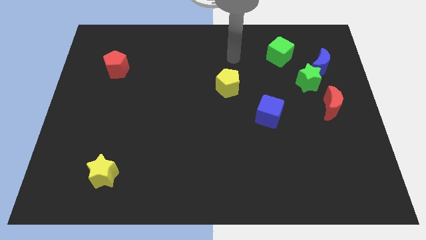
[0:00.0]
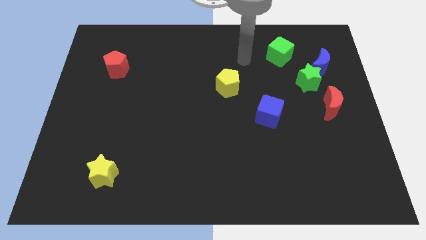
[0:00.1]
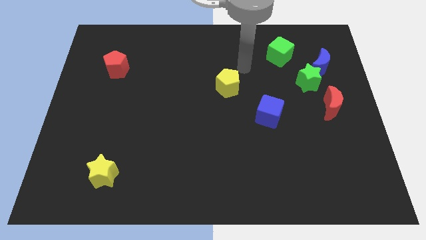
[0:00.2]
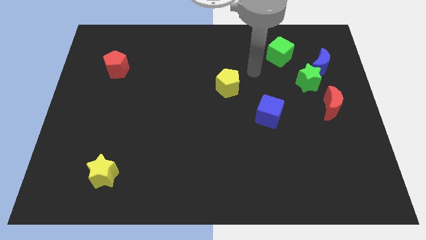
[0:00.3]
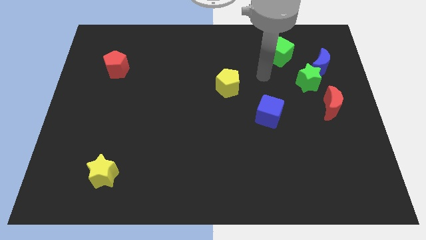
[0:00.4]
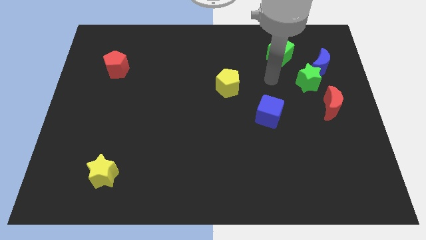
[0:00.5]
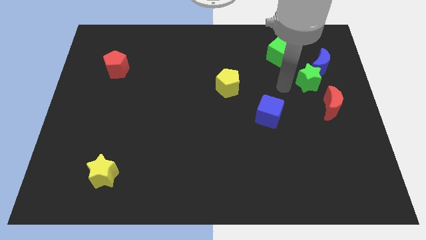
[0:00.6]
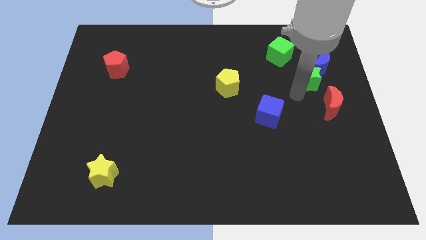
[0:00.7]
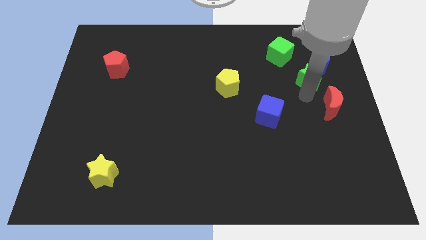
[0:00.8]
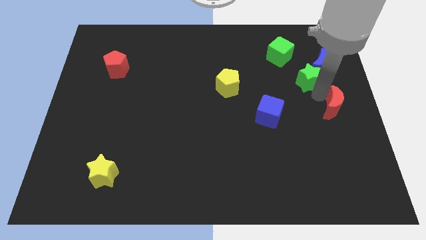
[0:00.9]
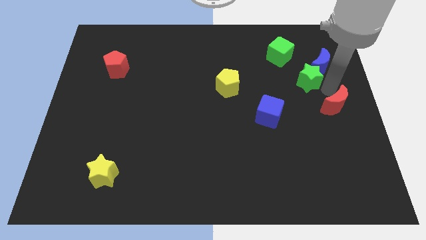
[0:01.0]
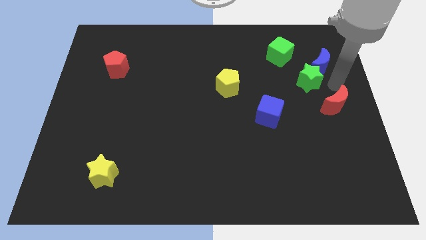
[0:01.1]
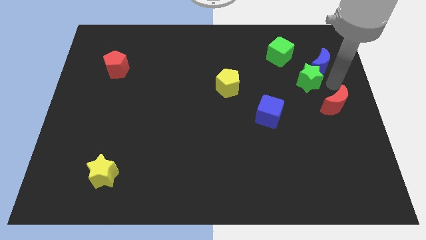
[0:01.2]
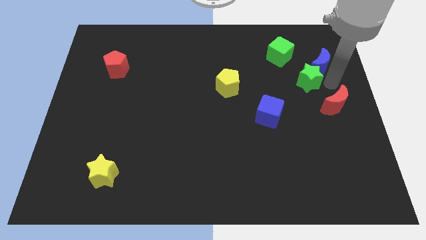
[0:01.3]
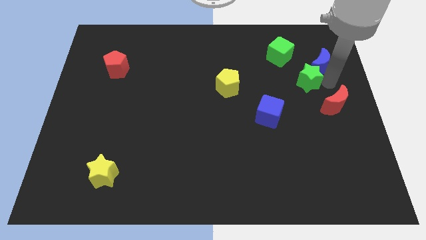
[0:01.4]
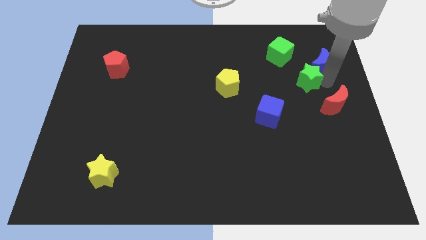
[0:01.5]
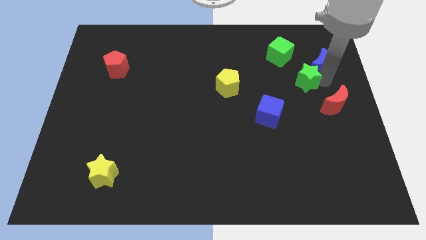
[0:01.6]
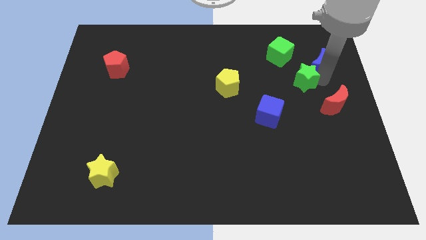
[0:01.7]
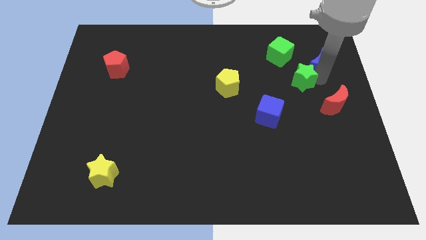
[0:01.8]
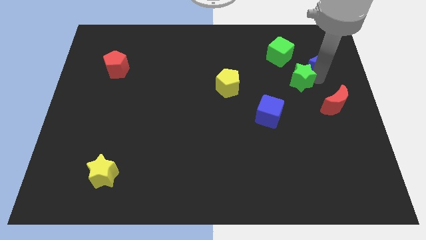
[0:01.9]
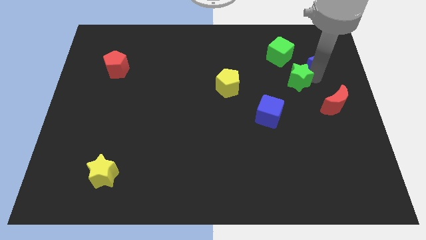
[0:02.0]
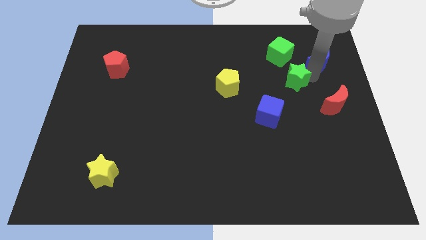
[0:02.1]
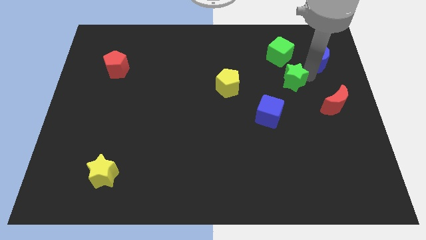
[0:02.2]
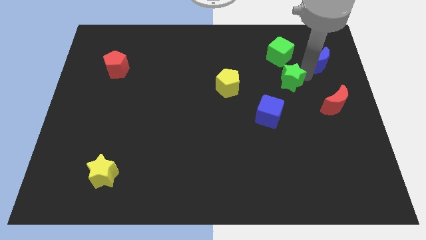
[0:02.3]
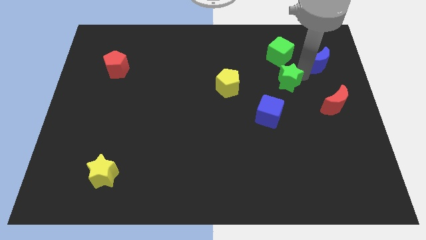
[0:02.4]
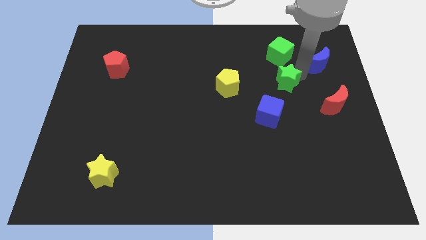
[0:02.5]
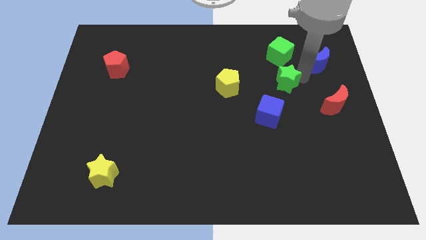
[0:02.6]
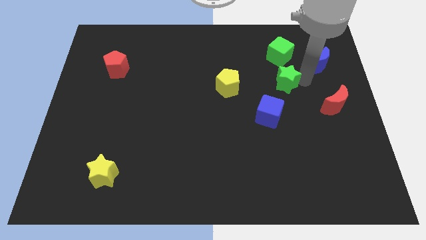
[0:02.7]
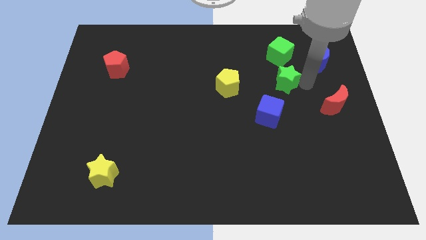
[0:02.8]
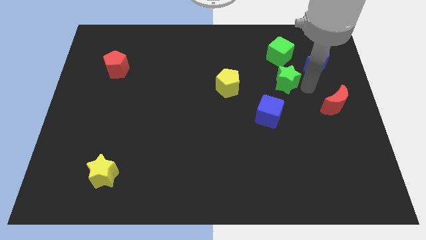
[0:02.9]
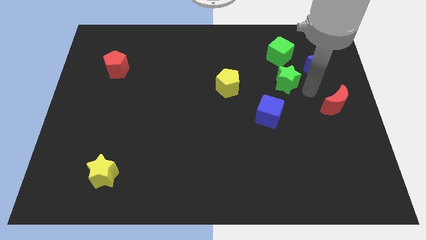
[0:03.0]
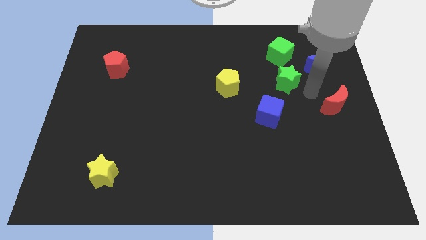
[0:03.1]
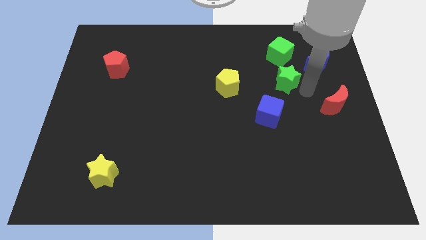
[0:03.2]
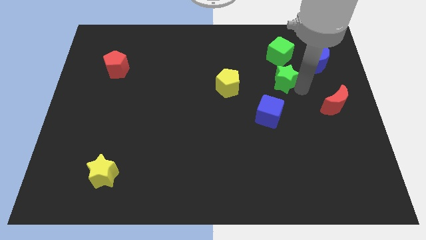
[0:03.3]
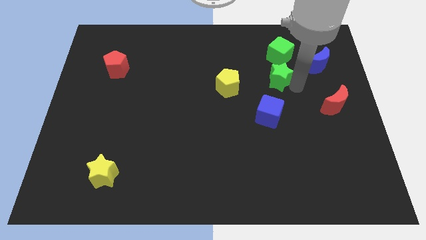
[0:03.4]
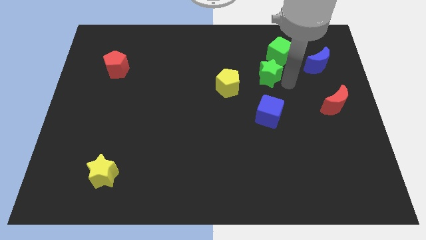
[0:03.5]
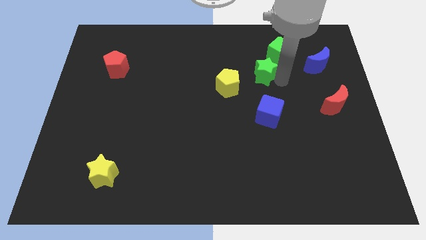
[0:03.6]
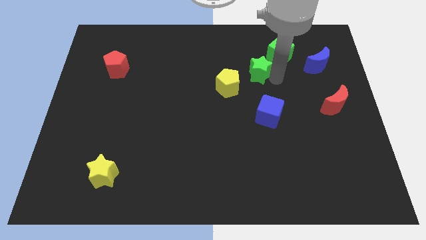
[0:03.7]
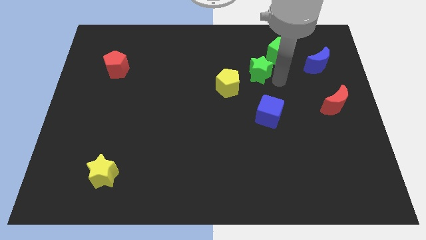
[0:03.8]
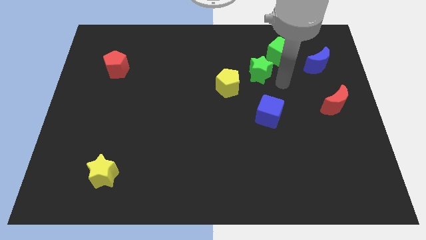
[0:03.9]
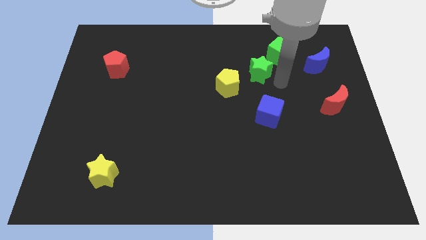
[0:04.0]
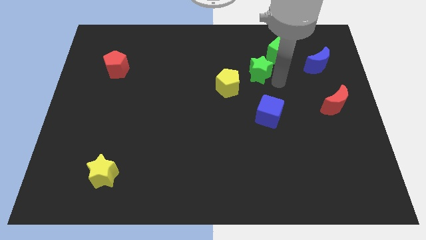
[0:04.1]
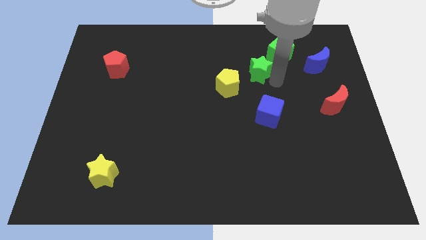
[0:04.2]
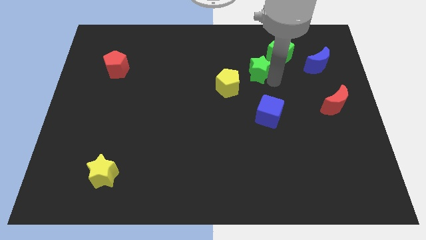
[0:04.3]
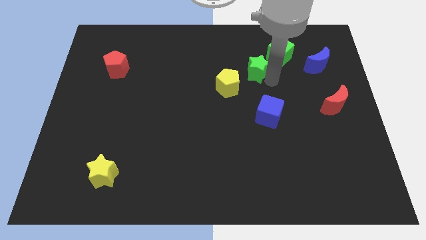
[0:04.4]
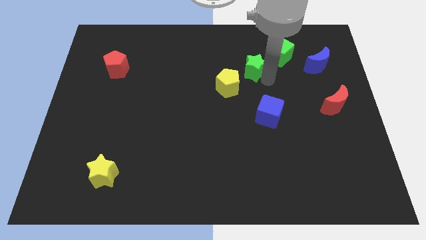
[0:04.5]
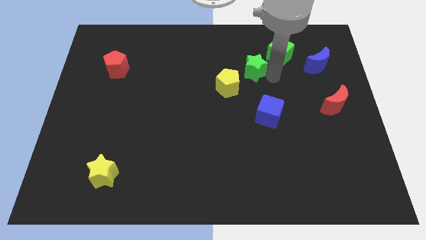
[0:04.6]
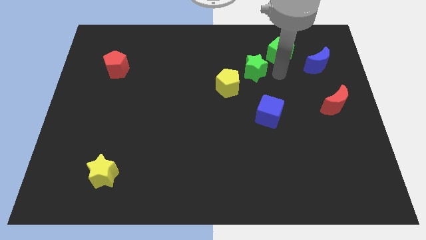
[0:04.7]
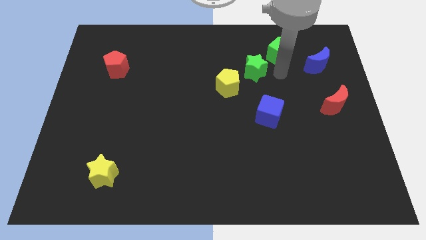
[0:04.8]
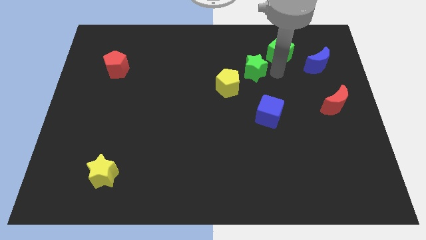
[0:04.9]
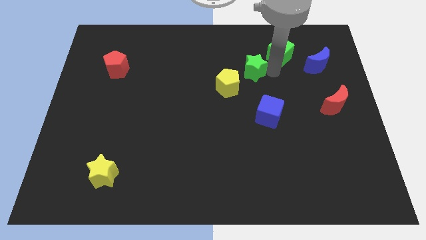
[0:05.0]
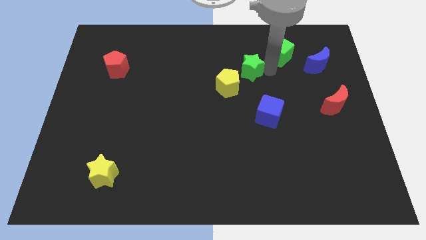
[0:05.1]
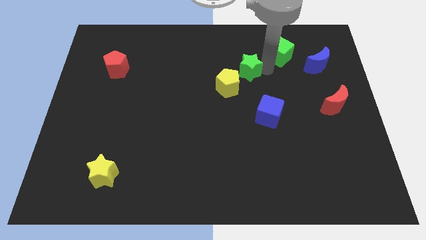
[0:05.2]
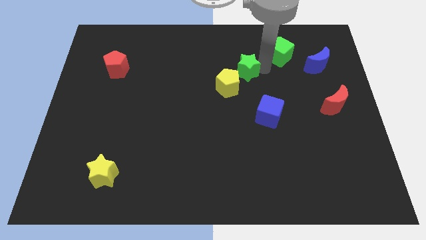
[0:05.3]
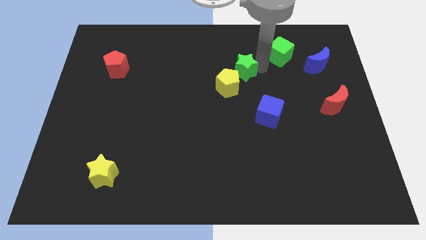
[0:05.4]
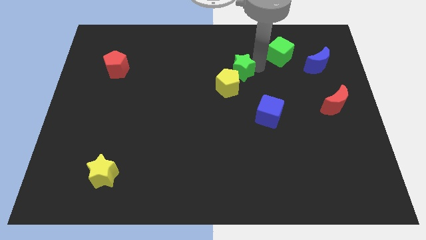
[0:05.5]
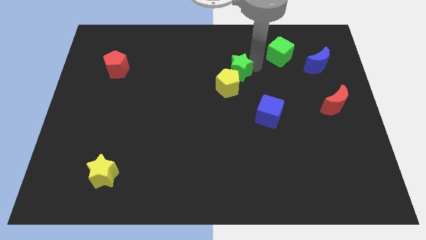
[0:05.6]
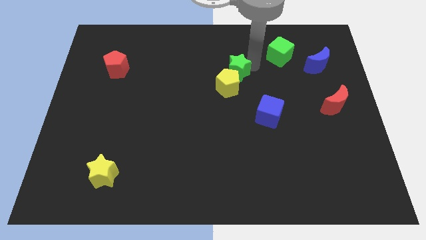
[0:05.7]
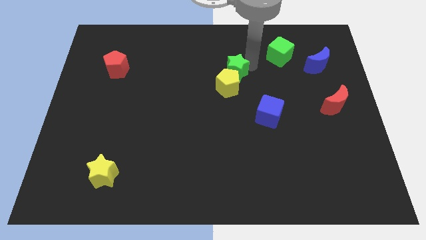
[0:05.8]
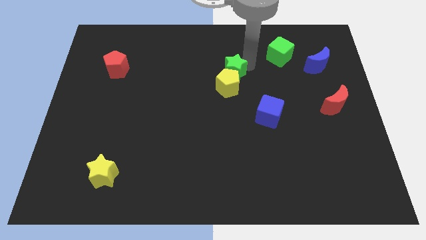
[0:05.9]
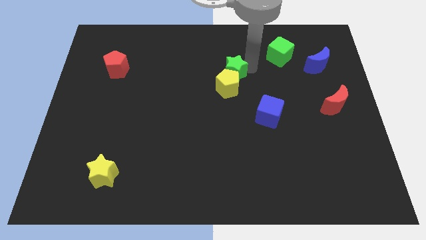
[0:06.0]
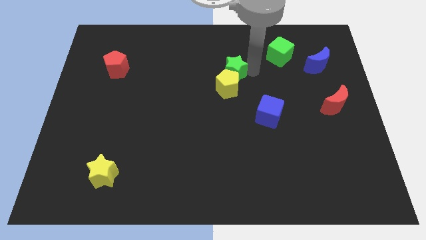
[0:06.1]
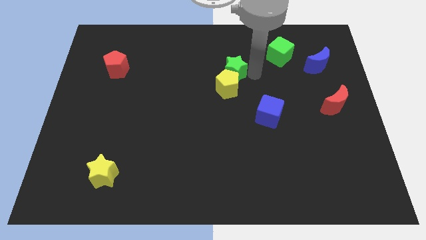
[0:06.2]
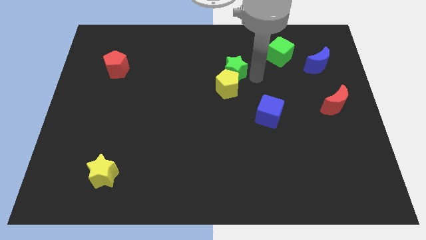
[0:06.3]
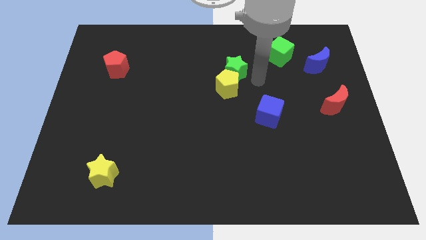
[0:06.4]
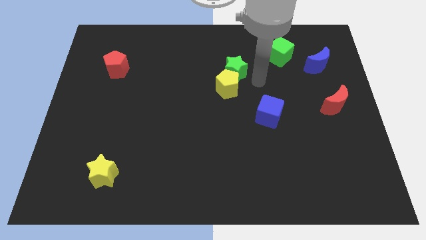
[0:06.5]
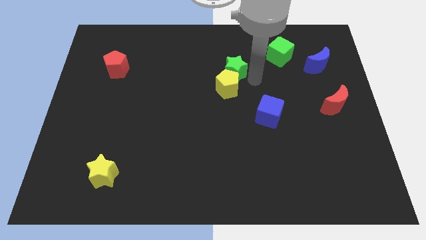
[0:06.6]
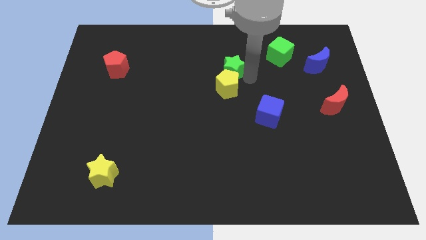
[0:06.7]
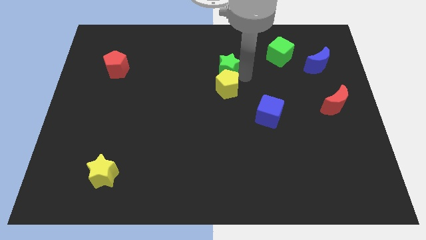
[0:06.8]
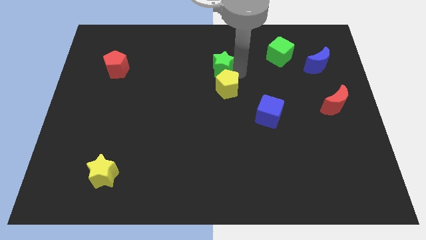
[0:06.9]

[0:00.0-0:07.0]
slide the green star left

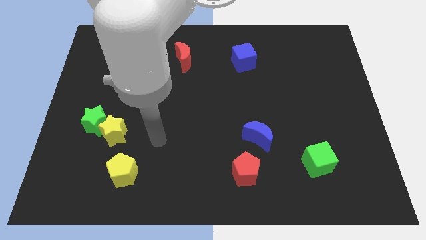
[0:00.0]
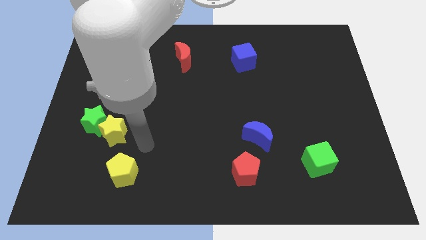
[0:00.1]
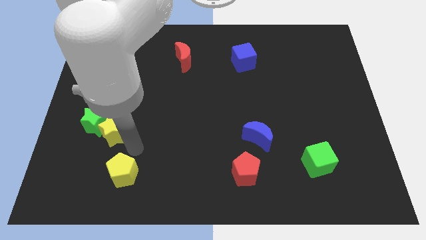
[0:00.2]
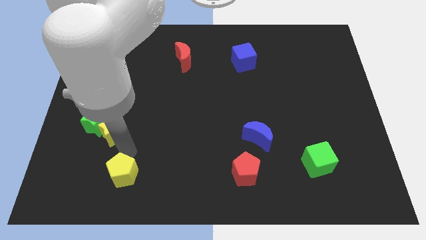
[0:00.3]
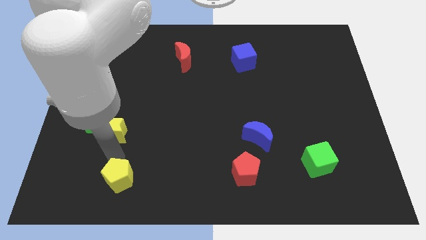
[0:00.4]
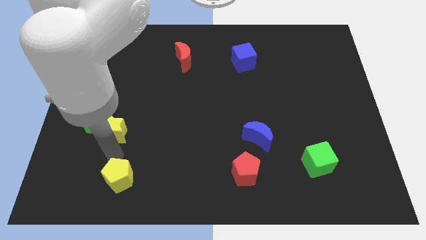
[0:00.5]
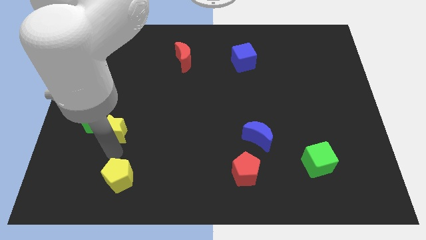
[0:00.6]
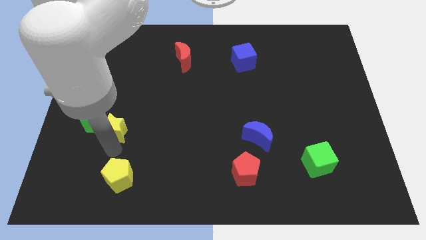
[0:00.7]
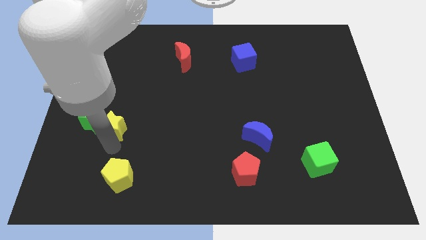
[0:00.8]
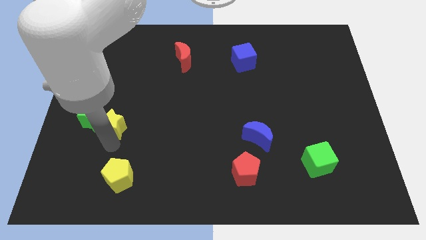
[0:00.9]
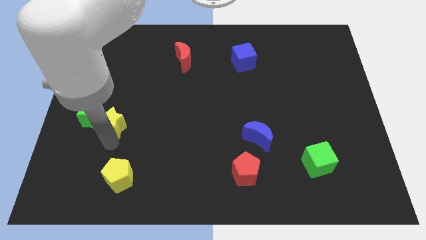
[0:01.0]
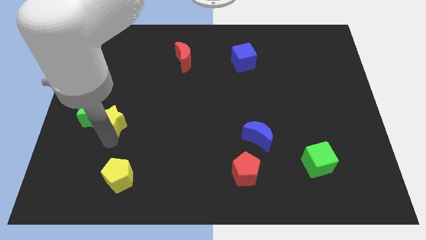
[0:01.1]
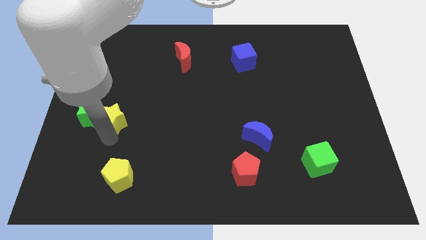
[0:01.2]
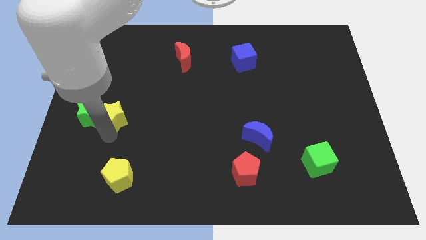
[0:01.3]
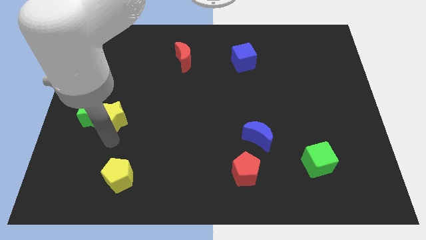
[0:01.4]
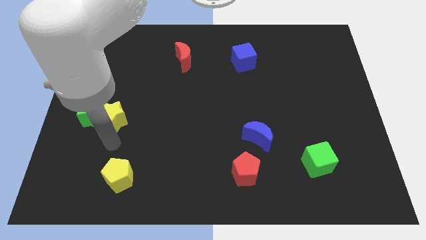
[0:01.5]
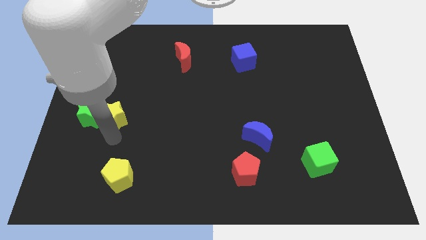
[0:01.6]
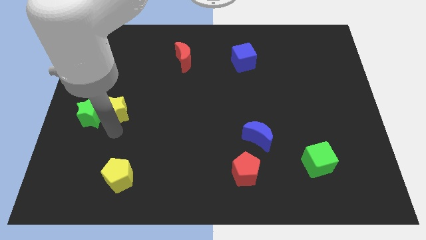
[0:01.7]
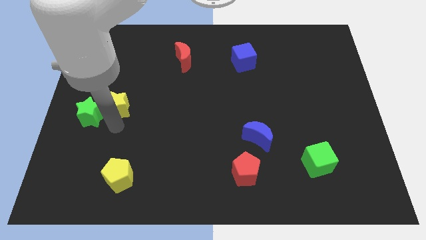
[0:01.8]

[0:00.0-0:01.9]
slide the yellow star up a bit
